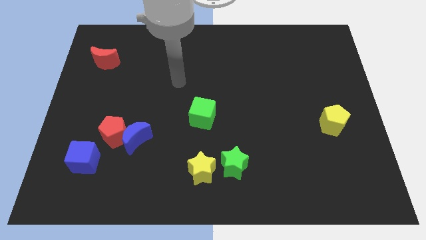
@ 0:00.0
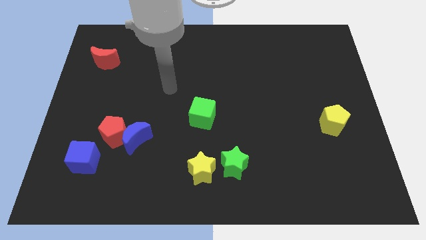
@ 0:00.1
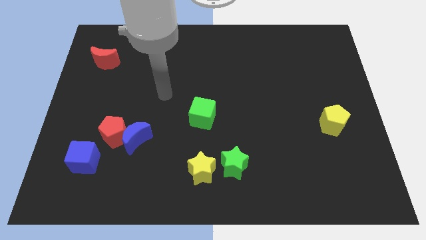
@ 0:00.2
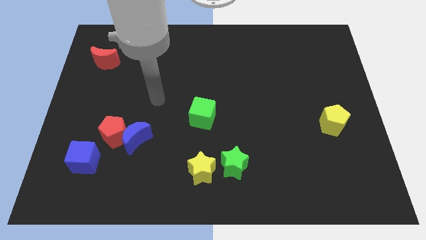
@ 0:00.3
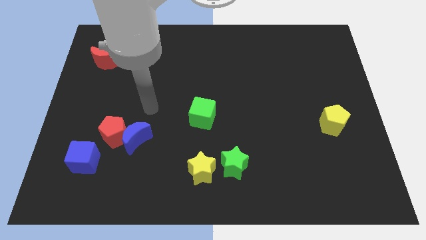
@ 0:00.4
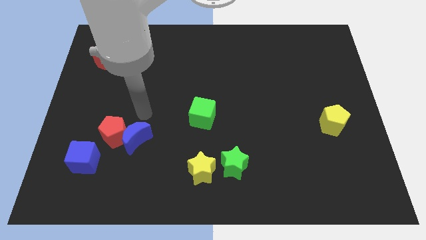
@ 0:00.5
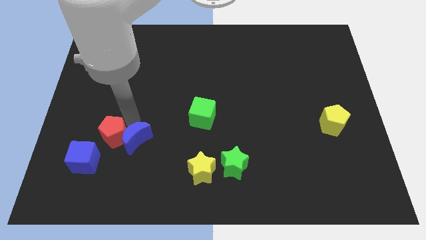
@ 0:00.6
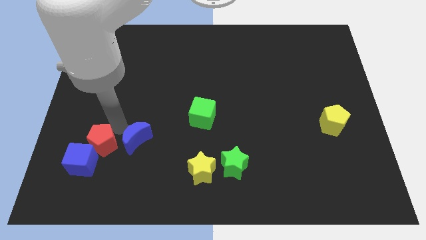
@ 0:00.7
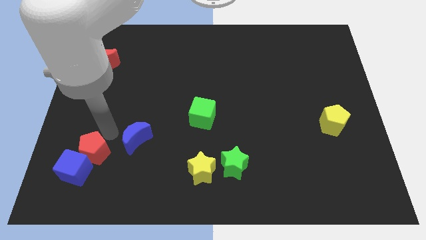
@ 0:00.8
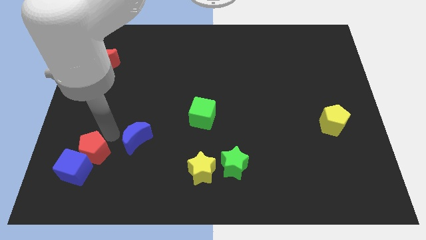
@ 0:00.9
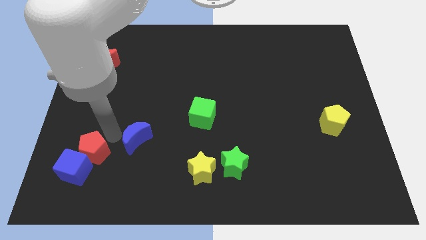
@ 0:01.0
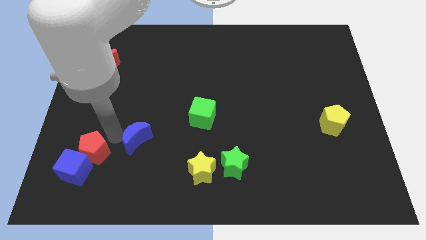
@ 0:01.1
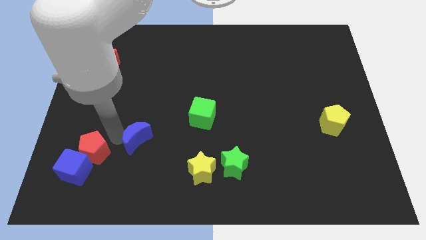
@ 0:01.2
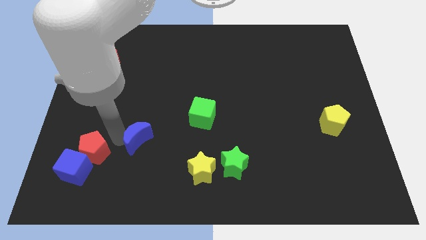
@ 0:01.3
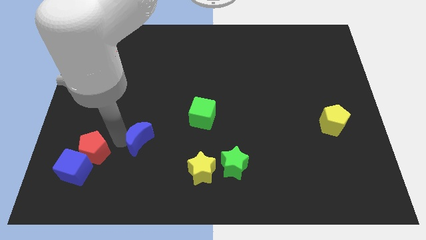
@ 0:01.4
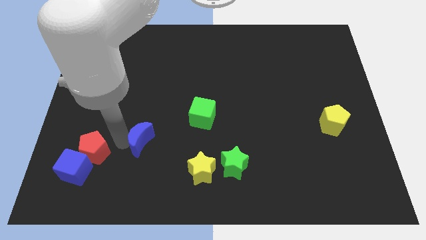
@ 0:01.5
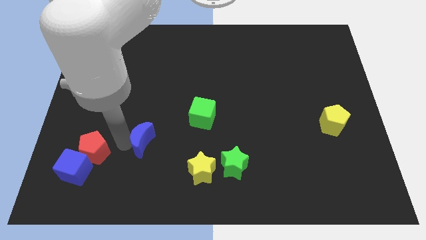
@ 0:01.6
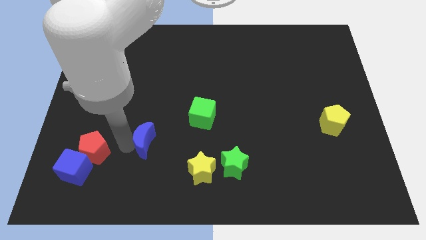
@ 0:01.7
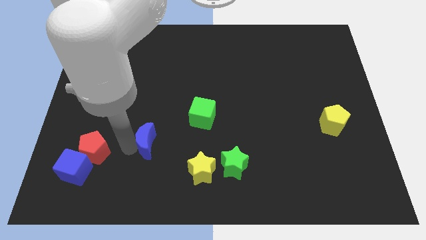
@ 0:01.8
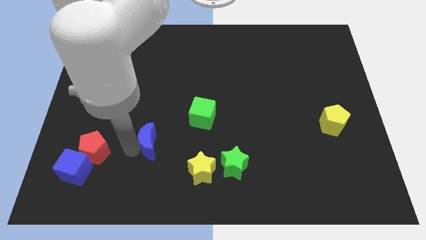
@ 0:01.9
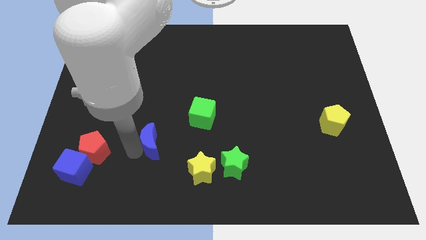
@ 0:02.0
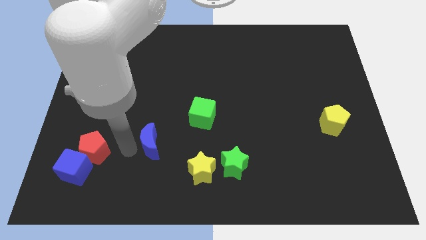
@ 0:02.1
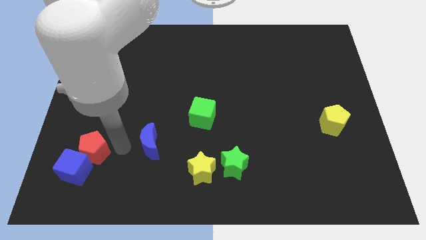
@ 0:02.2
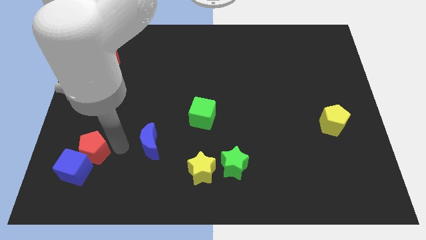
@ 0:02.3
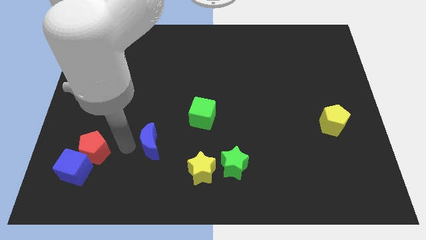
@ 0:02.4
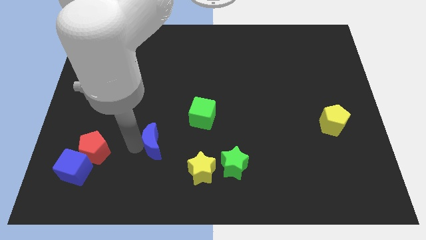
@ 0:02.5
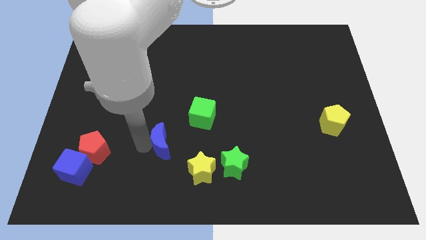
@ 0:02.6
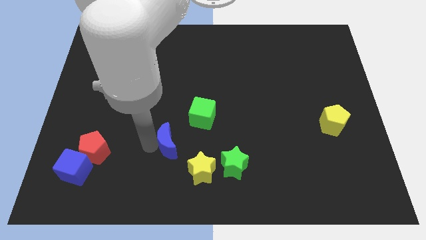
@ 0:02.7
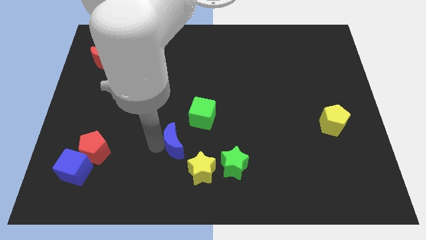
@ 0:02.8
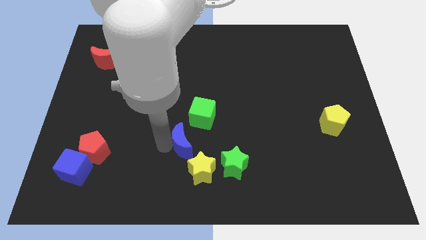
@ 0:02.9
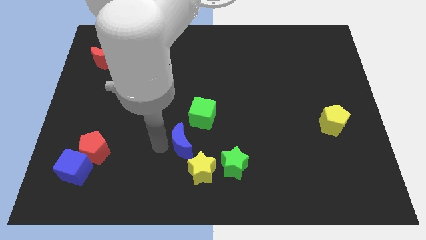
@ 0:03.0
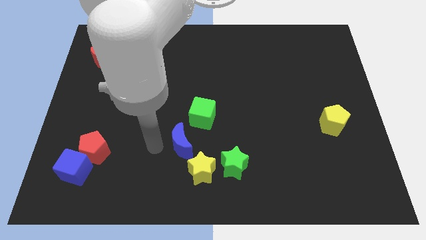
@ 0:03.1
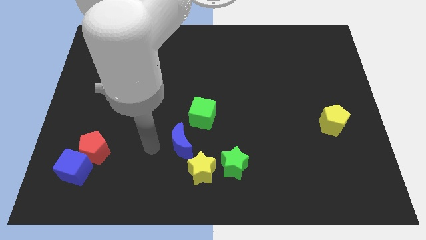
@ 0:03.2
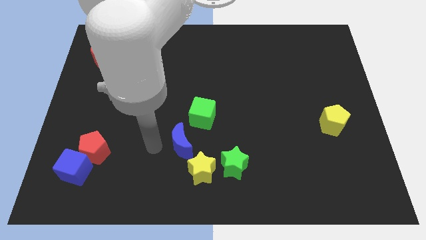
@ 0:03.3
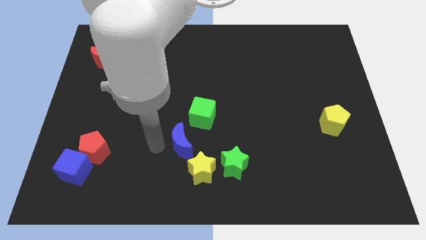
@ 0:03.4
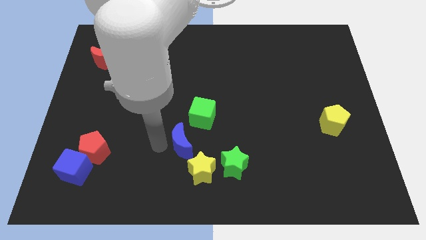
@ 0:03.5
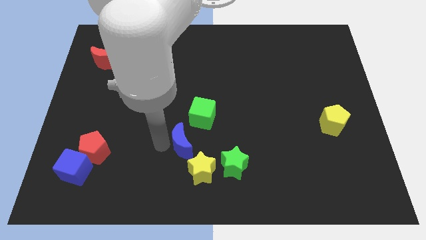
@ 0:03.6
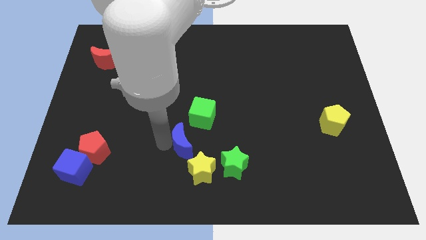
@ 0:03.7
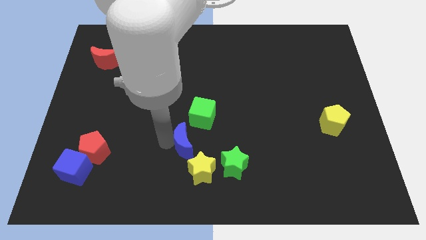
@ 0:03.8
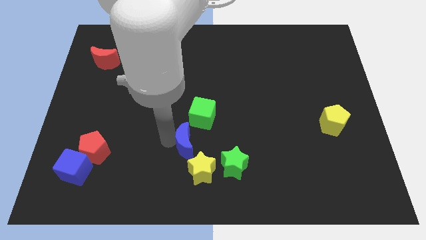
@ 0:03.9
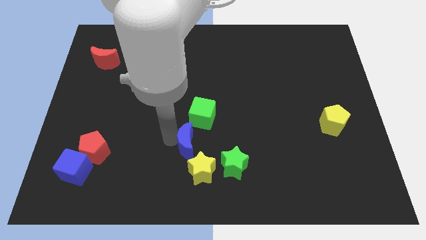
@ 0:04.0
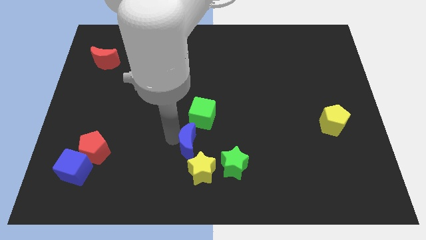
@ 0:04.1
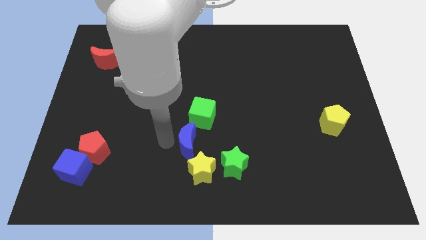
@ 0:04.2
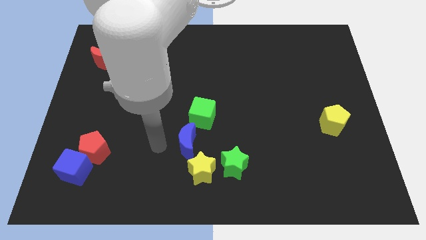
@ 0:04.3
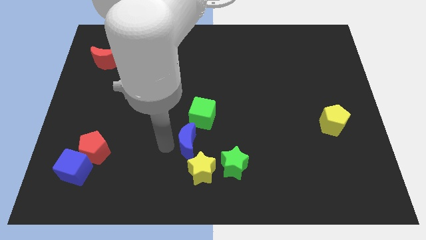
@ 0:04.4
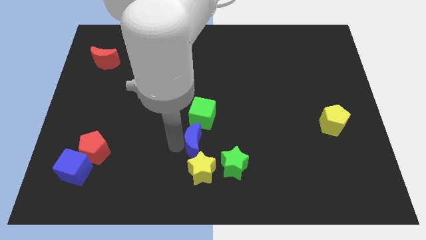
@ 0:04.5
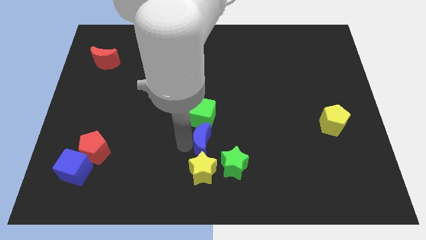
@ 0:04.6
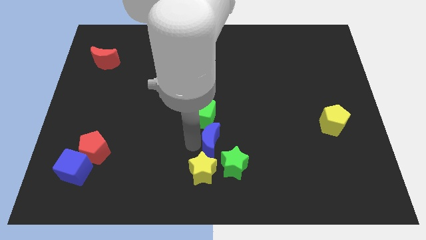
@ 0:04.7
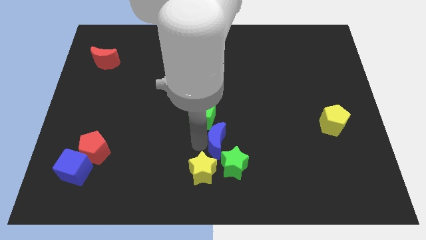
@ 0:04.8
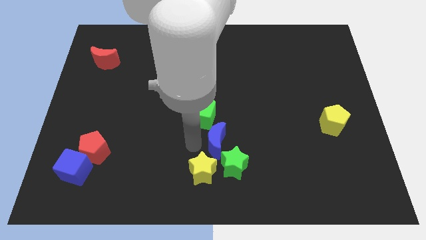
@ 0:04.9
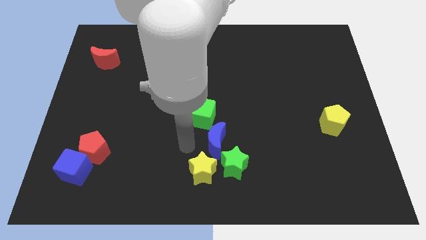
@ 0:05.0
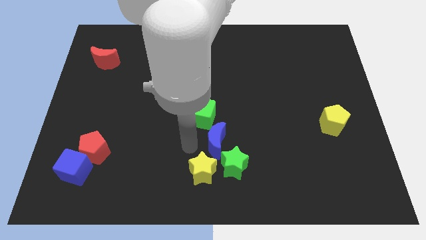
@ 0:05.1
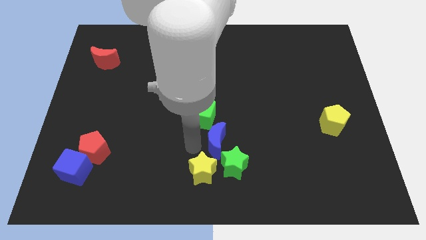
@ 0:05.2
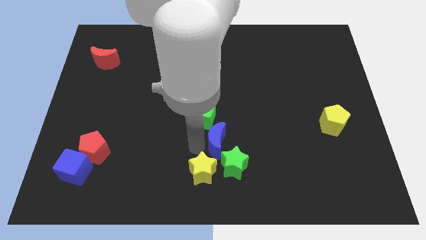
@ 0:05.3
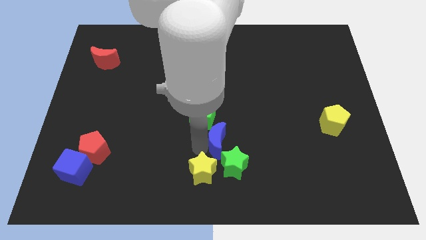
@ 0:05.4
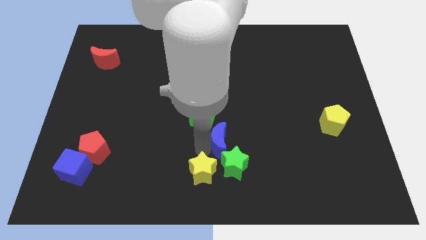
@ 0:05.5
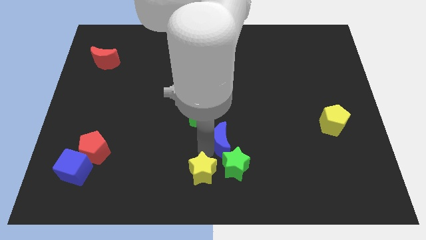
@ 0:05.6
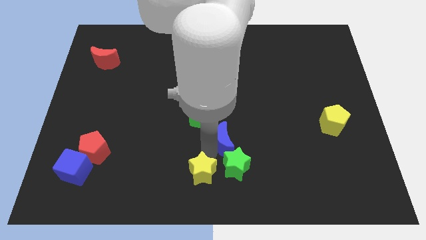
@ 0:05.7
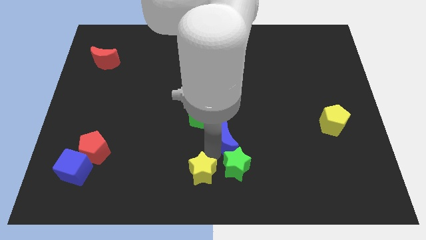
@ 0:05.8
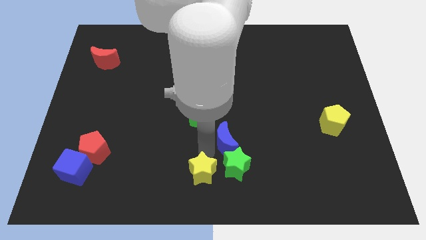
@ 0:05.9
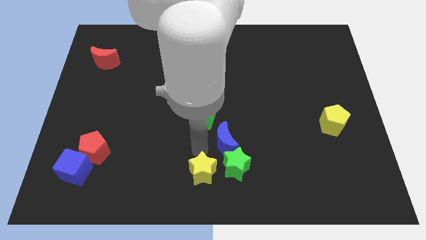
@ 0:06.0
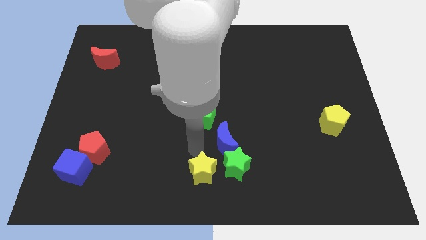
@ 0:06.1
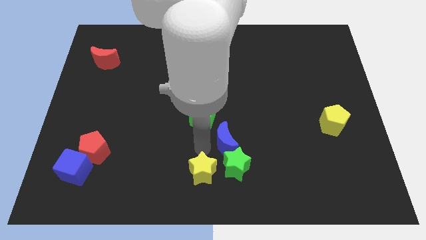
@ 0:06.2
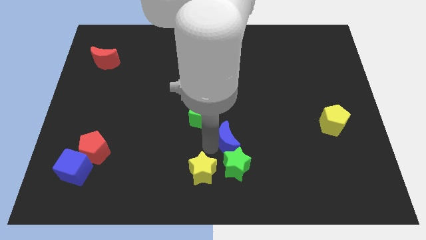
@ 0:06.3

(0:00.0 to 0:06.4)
slide the blue moon right

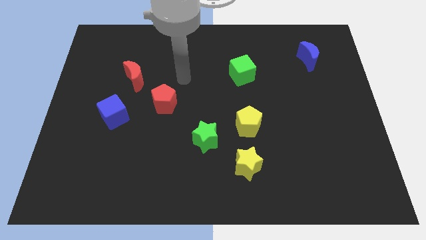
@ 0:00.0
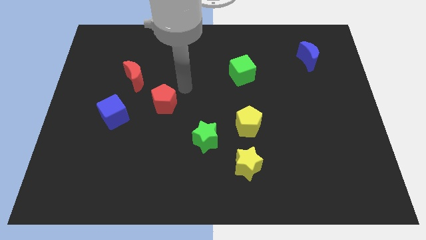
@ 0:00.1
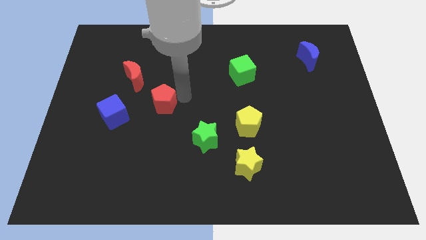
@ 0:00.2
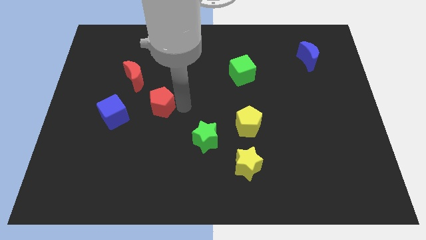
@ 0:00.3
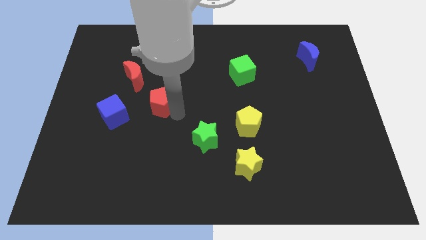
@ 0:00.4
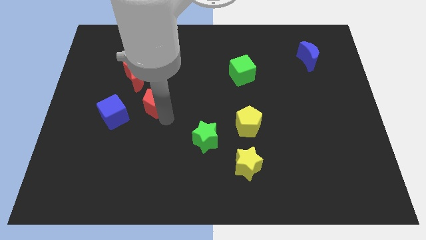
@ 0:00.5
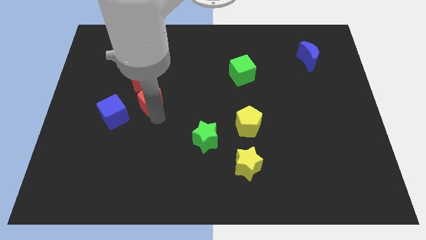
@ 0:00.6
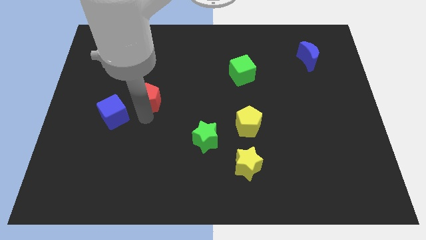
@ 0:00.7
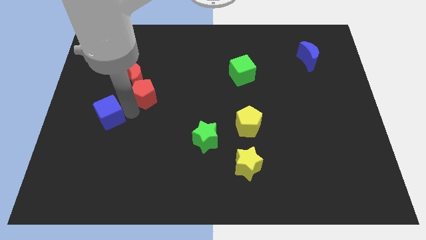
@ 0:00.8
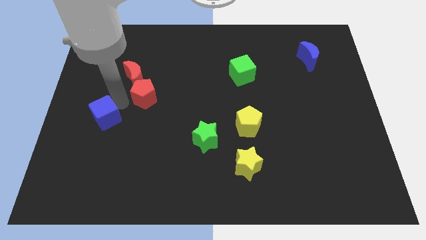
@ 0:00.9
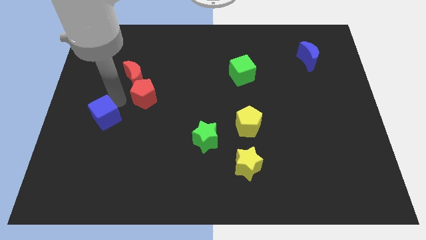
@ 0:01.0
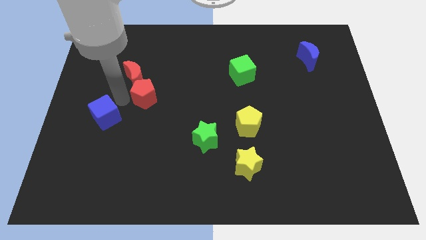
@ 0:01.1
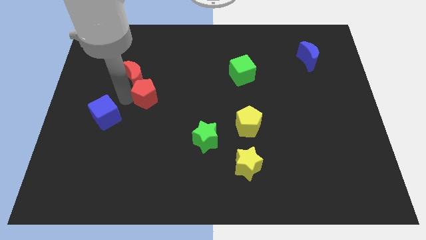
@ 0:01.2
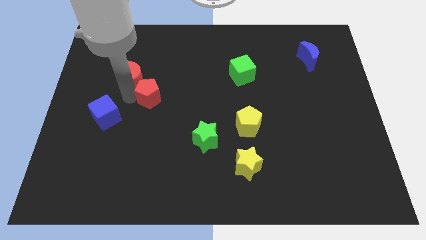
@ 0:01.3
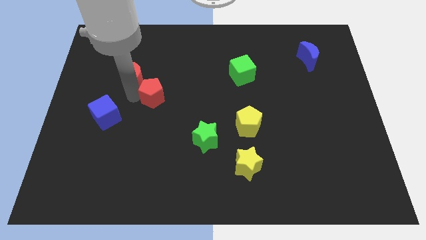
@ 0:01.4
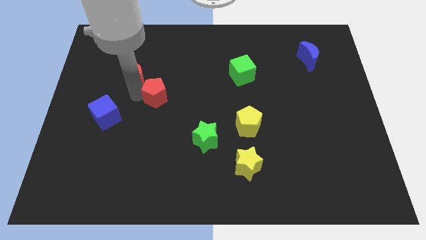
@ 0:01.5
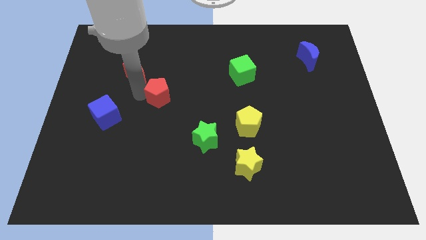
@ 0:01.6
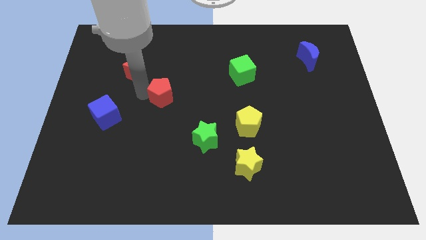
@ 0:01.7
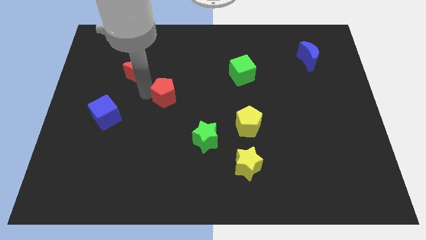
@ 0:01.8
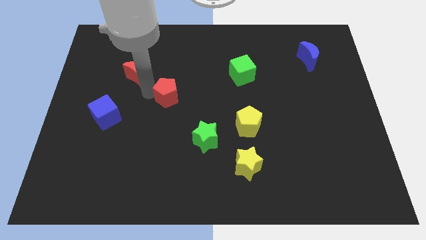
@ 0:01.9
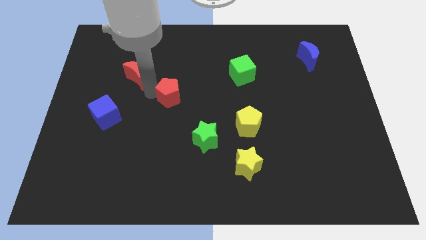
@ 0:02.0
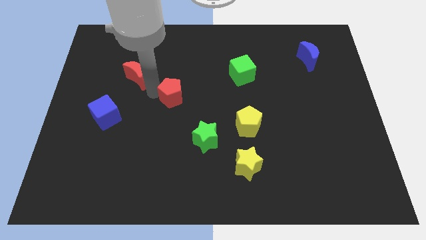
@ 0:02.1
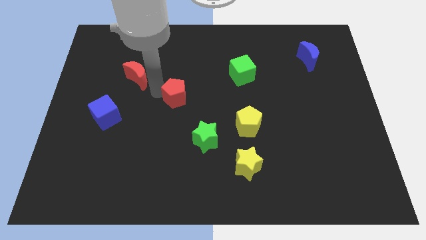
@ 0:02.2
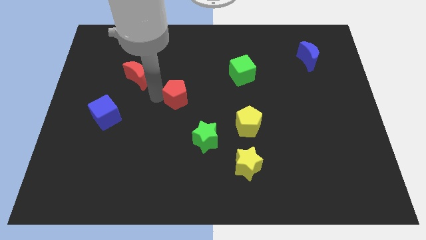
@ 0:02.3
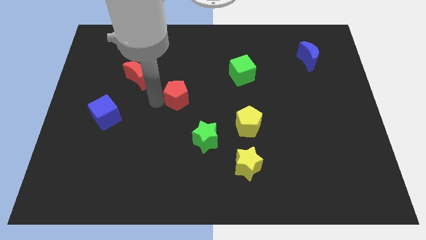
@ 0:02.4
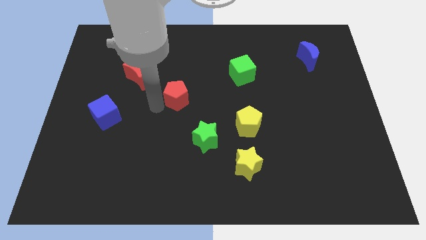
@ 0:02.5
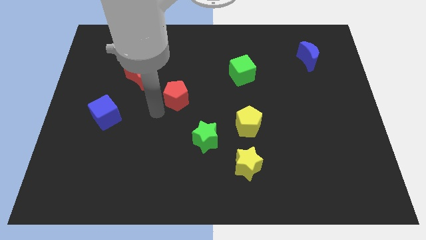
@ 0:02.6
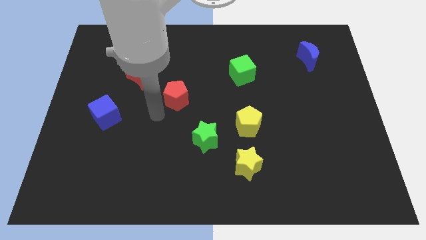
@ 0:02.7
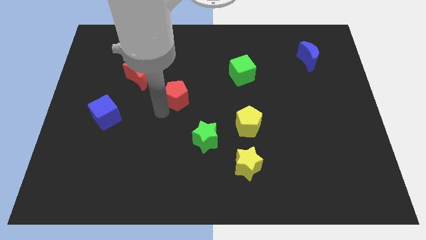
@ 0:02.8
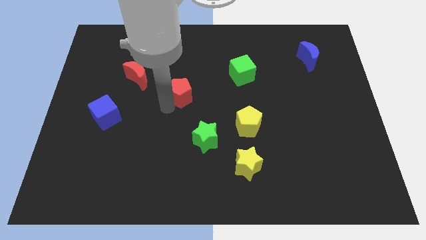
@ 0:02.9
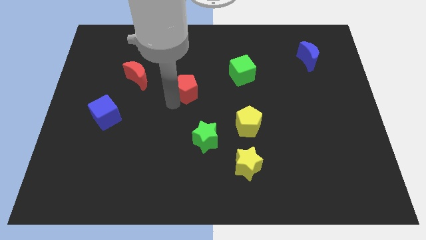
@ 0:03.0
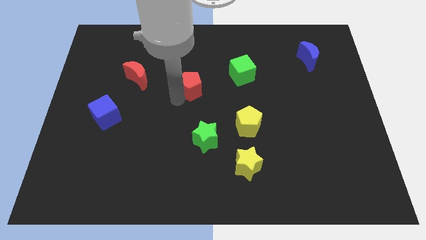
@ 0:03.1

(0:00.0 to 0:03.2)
push the red pentagon a little up and to the right
